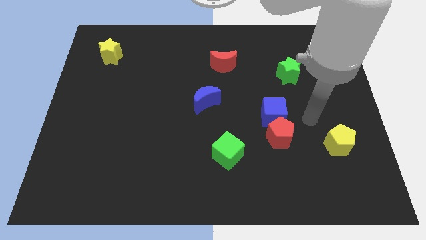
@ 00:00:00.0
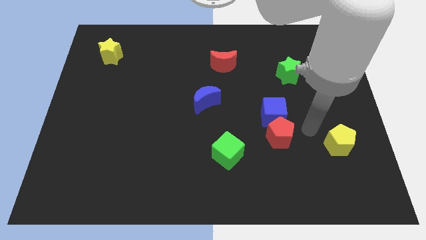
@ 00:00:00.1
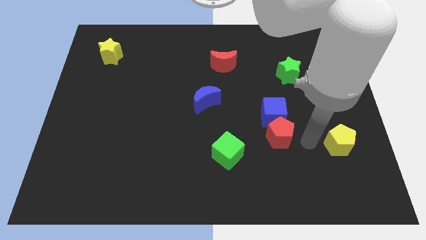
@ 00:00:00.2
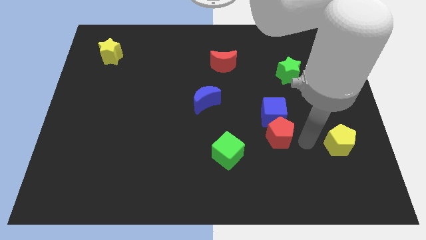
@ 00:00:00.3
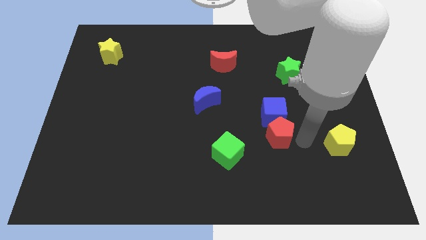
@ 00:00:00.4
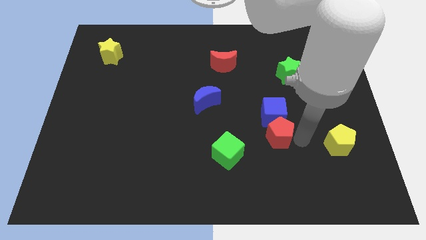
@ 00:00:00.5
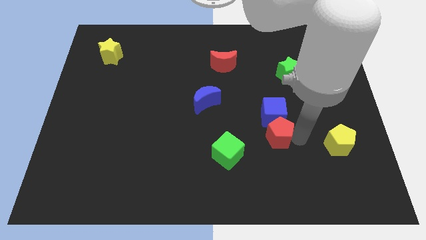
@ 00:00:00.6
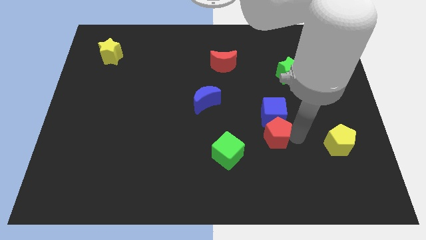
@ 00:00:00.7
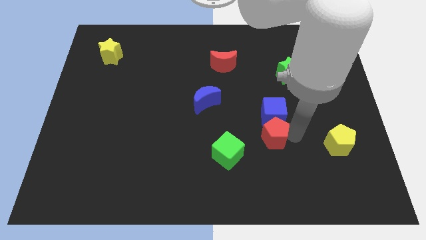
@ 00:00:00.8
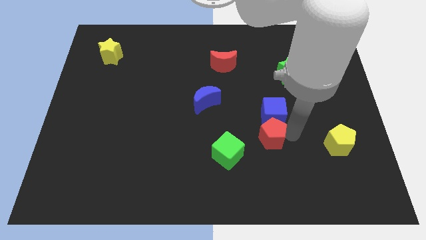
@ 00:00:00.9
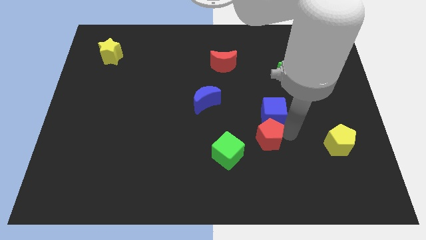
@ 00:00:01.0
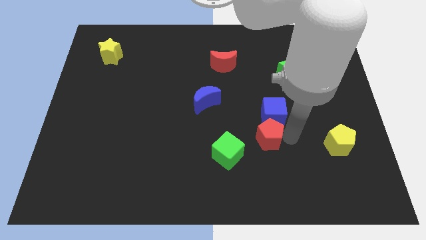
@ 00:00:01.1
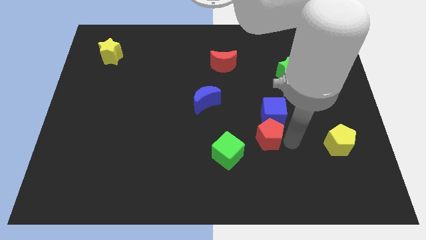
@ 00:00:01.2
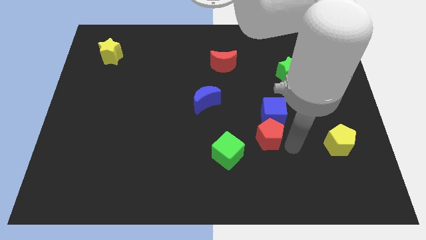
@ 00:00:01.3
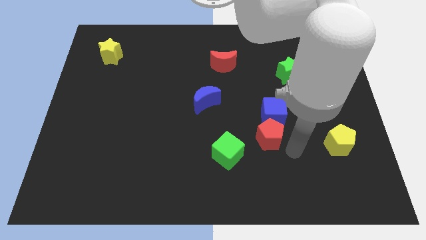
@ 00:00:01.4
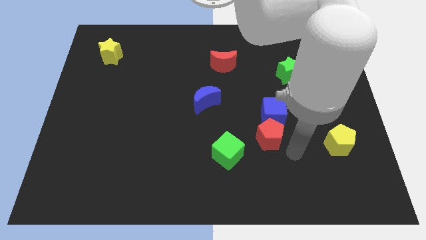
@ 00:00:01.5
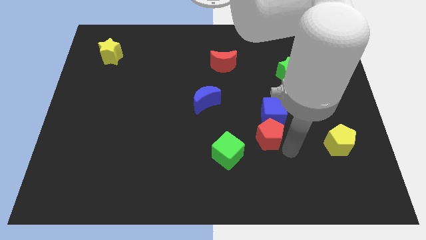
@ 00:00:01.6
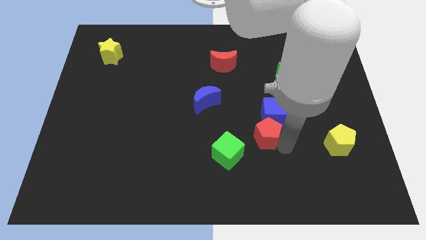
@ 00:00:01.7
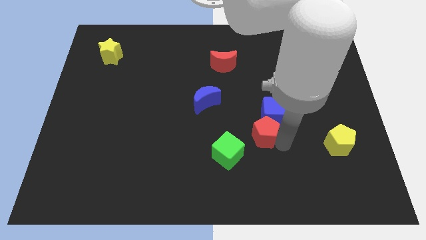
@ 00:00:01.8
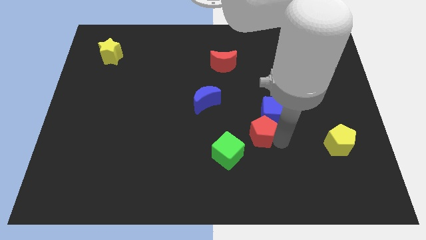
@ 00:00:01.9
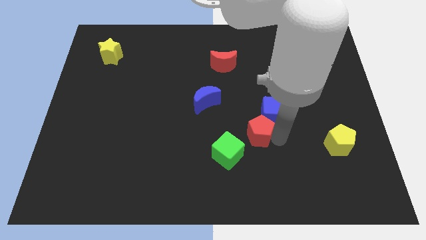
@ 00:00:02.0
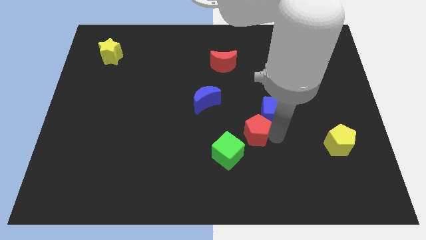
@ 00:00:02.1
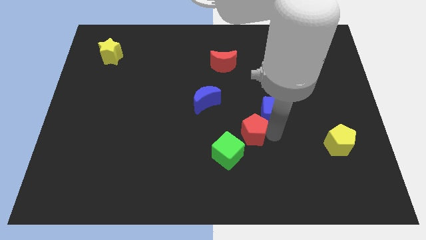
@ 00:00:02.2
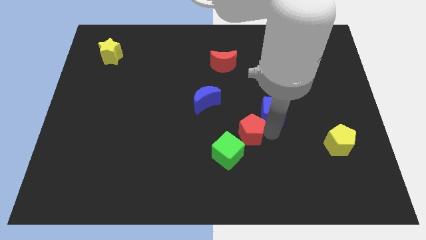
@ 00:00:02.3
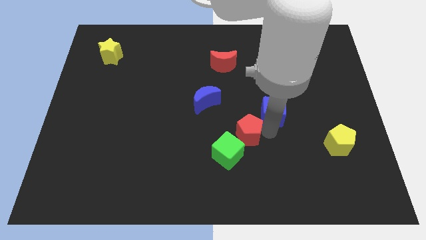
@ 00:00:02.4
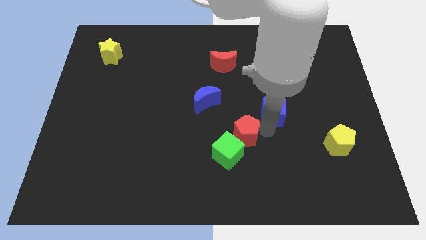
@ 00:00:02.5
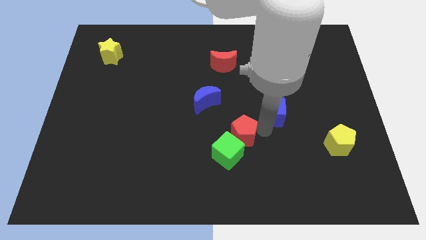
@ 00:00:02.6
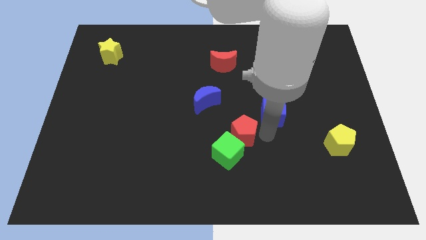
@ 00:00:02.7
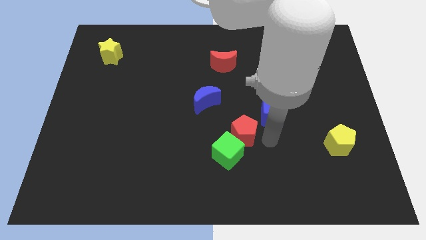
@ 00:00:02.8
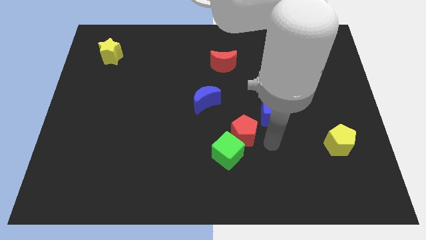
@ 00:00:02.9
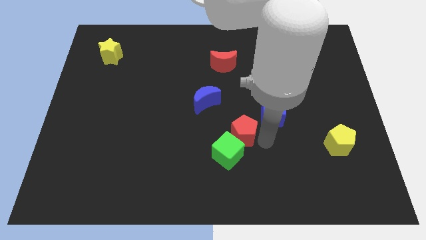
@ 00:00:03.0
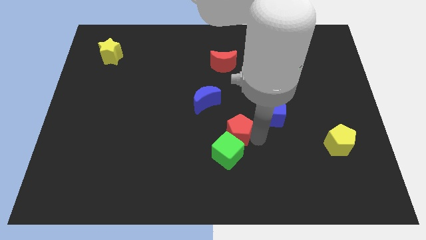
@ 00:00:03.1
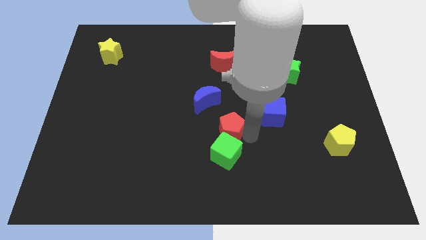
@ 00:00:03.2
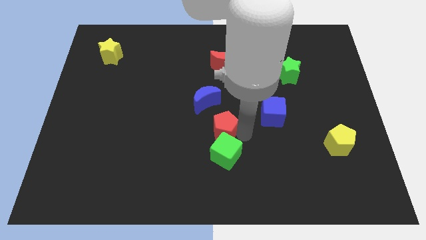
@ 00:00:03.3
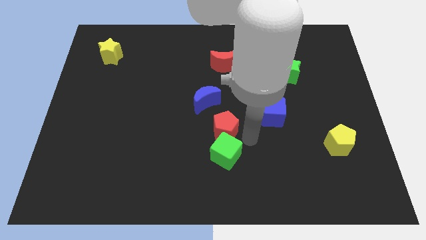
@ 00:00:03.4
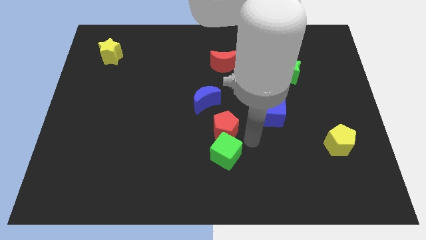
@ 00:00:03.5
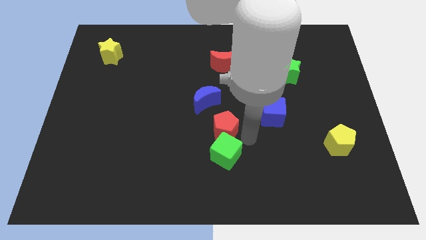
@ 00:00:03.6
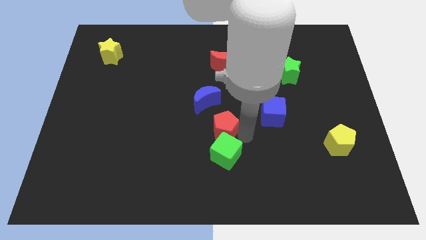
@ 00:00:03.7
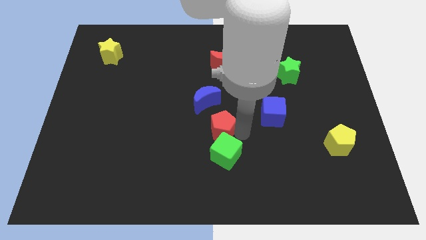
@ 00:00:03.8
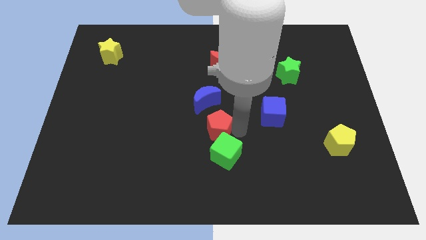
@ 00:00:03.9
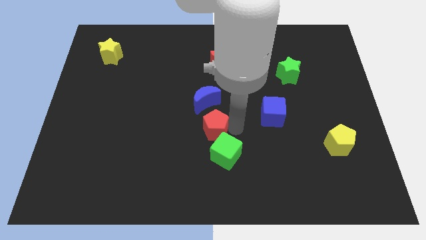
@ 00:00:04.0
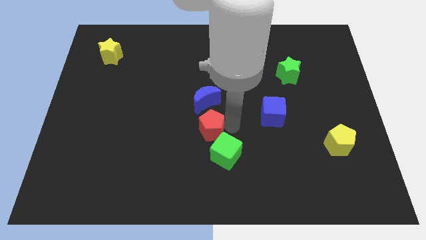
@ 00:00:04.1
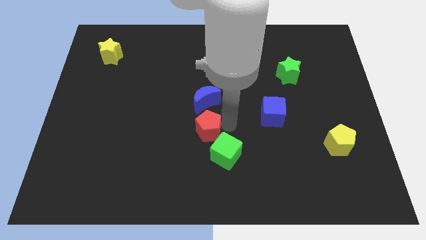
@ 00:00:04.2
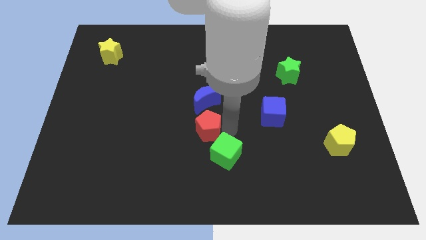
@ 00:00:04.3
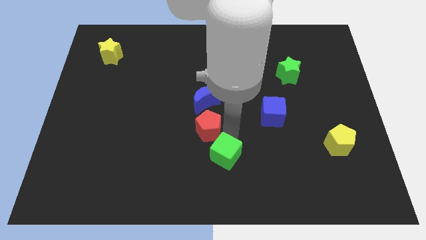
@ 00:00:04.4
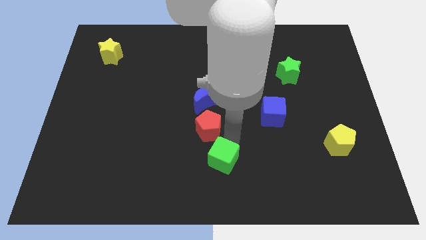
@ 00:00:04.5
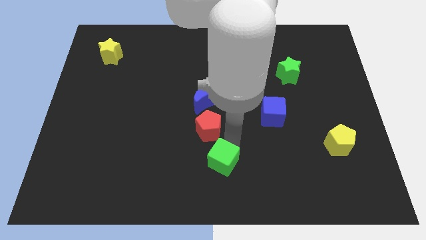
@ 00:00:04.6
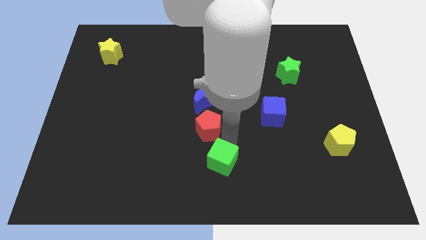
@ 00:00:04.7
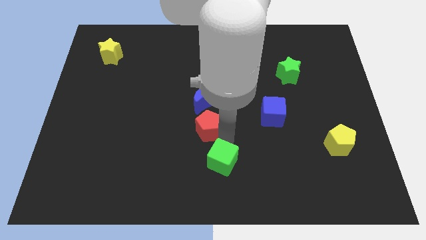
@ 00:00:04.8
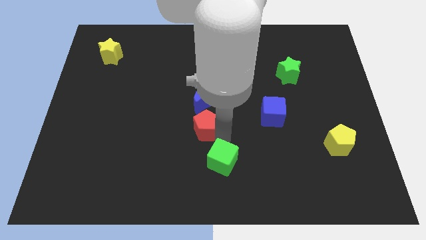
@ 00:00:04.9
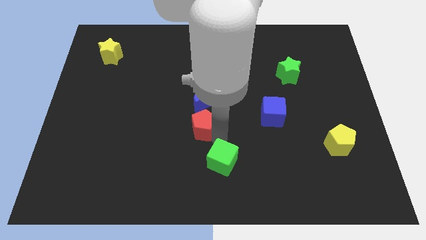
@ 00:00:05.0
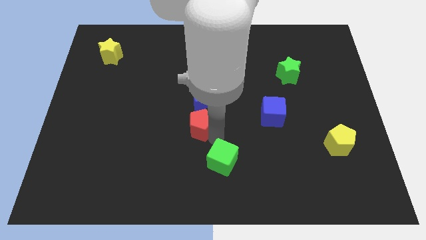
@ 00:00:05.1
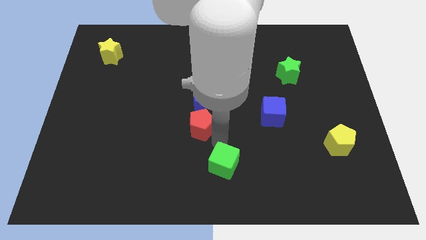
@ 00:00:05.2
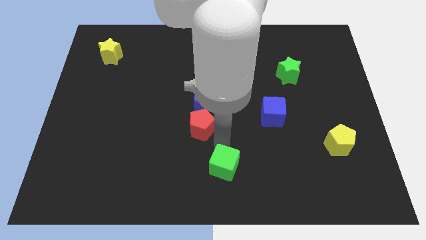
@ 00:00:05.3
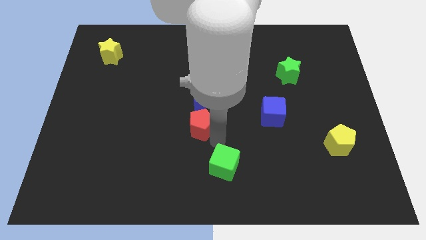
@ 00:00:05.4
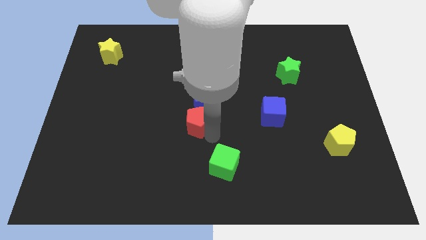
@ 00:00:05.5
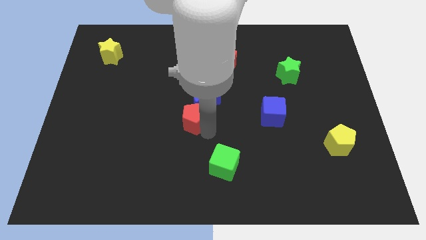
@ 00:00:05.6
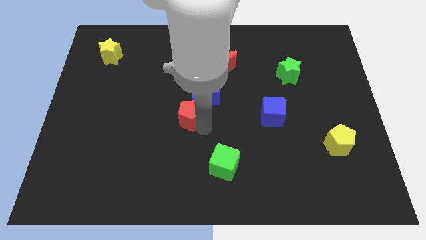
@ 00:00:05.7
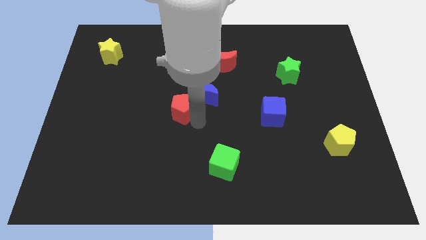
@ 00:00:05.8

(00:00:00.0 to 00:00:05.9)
push the red pentagon just left of the blue moon

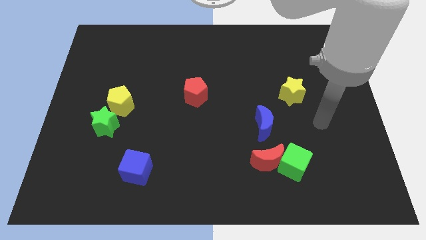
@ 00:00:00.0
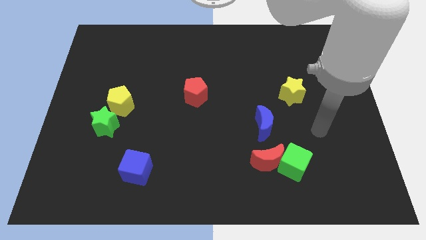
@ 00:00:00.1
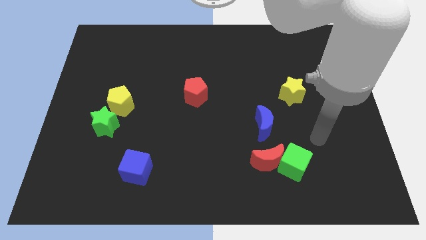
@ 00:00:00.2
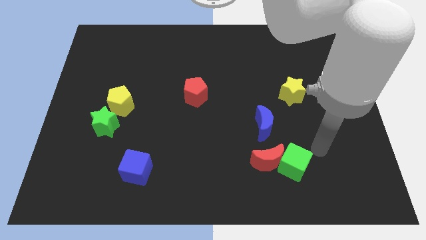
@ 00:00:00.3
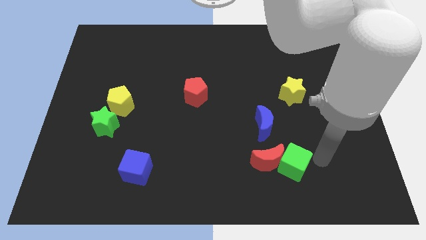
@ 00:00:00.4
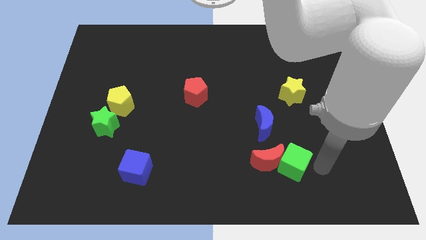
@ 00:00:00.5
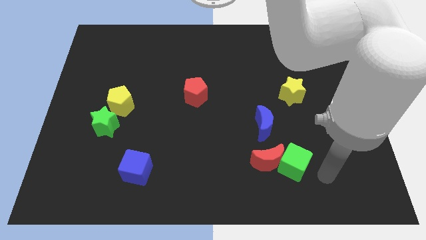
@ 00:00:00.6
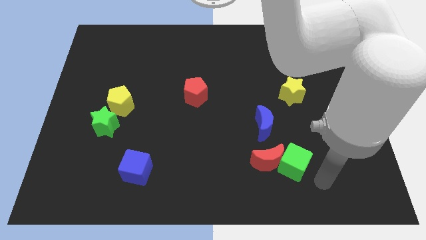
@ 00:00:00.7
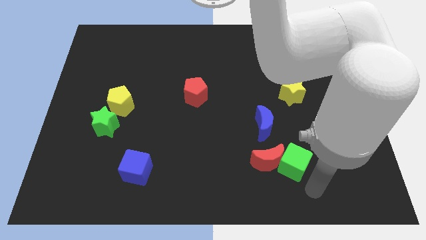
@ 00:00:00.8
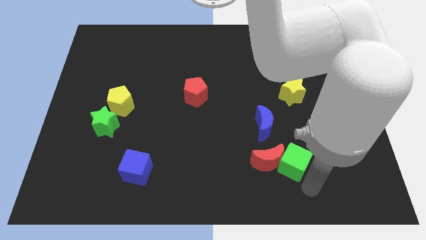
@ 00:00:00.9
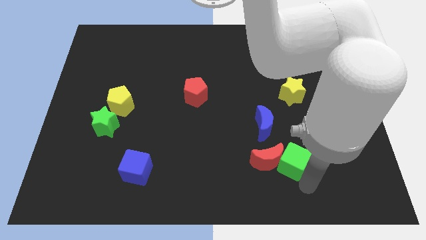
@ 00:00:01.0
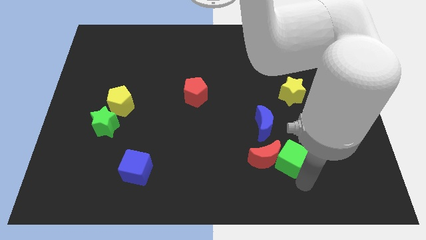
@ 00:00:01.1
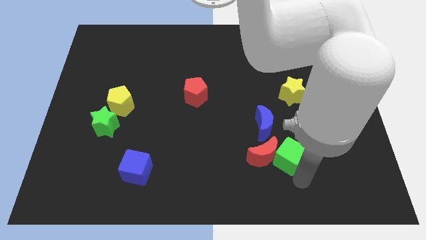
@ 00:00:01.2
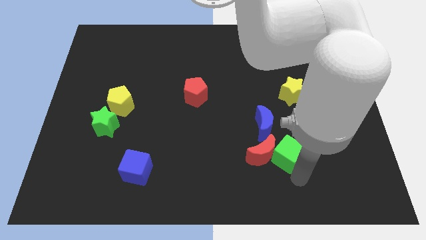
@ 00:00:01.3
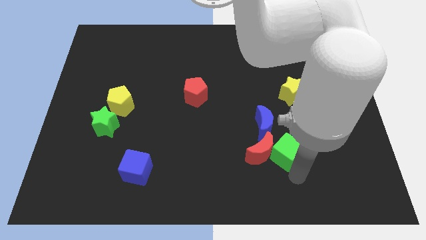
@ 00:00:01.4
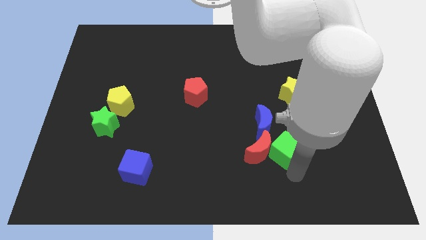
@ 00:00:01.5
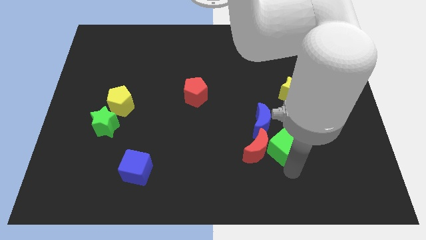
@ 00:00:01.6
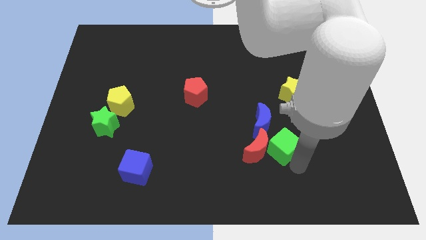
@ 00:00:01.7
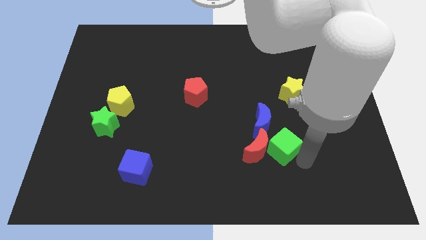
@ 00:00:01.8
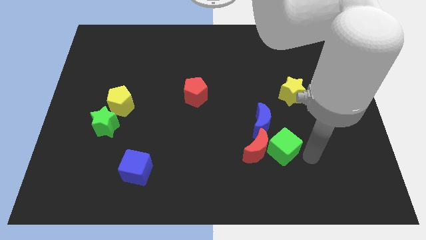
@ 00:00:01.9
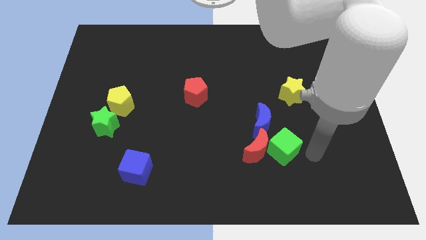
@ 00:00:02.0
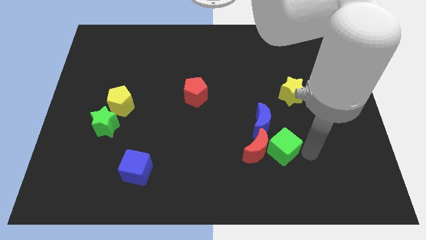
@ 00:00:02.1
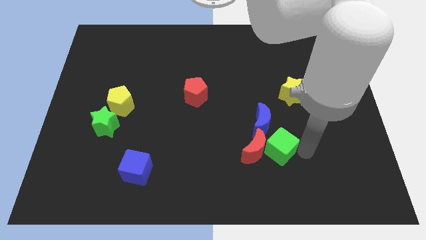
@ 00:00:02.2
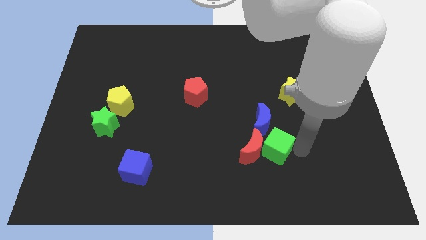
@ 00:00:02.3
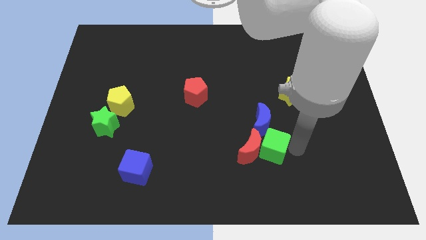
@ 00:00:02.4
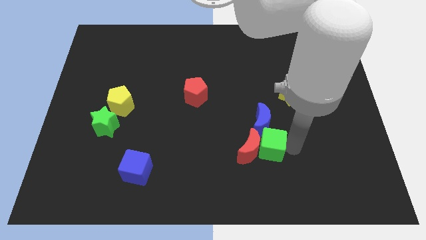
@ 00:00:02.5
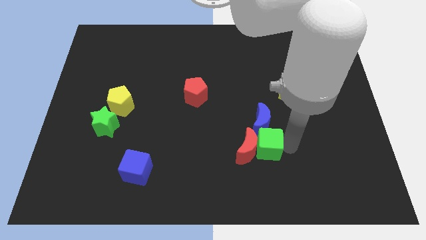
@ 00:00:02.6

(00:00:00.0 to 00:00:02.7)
put the green cube diagonally down and to the left of the blue moon
